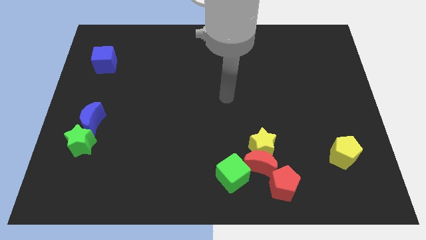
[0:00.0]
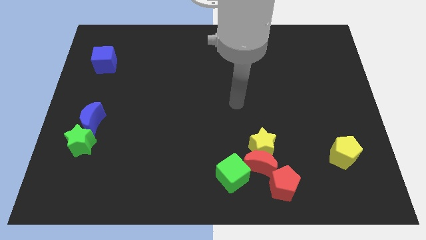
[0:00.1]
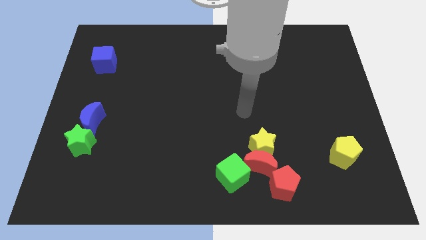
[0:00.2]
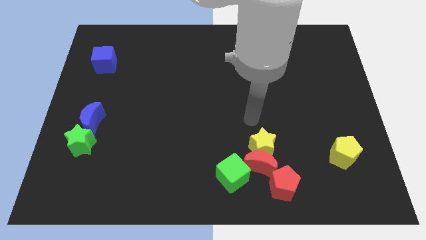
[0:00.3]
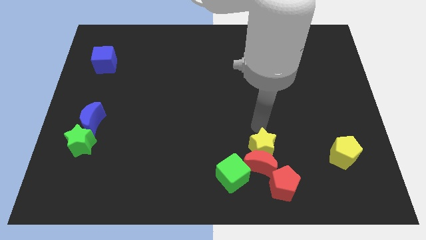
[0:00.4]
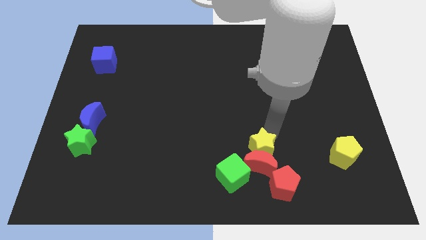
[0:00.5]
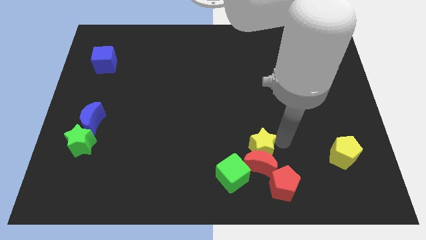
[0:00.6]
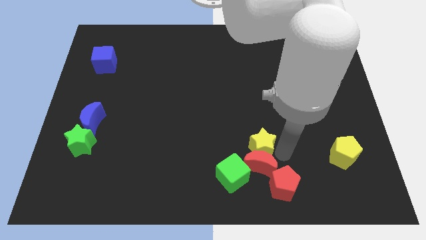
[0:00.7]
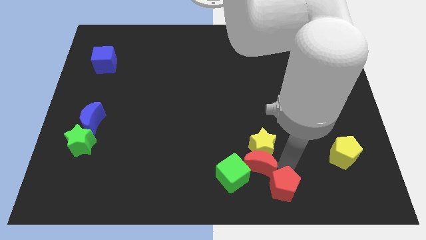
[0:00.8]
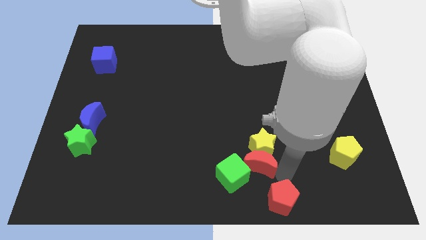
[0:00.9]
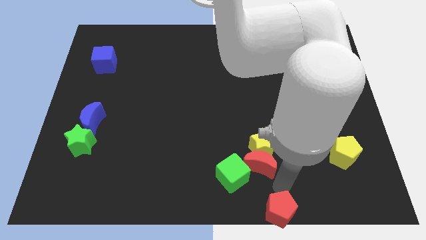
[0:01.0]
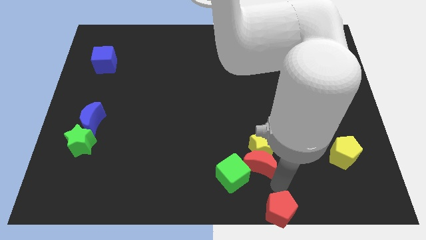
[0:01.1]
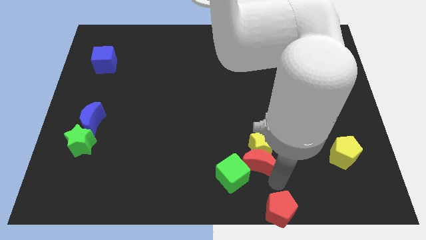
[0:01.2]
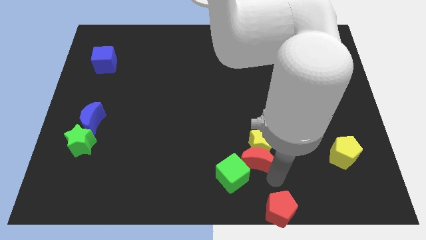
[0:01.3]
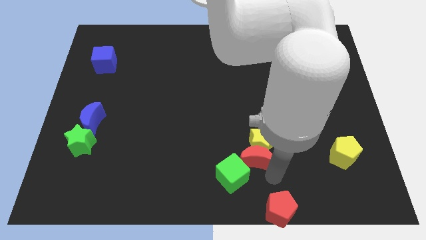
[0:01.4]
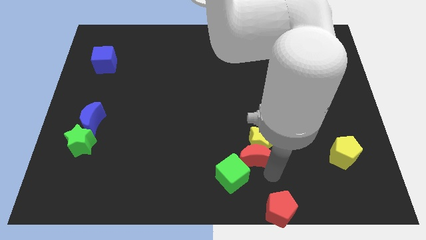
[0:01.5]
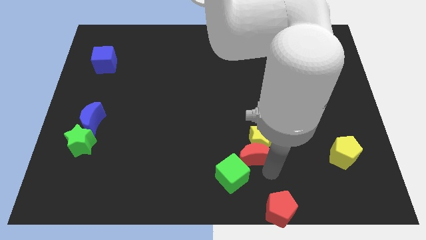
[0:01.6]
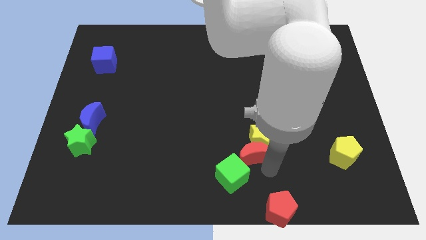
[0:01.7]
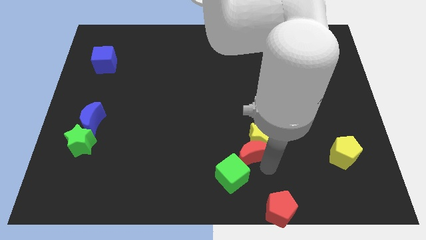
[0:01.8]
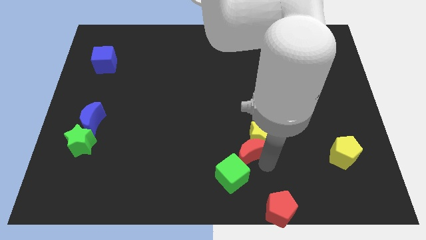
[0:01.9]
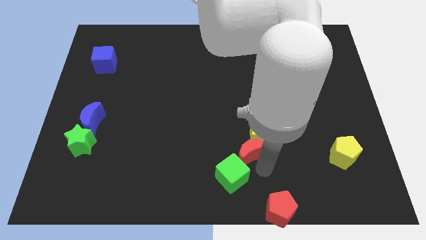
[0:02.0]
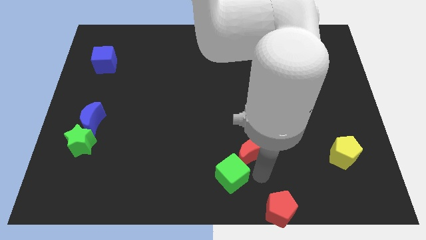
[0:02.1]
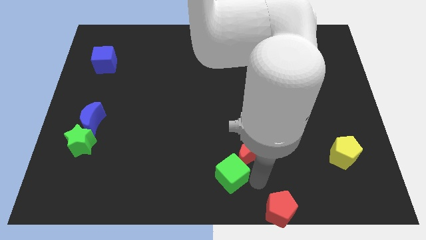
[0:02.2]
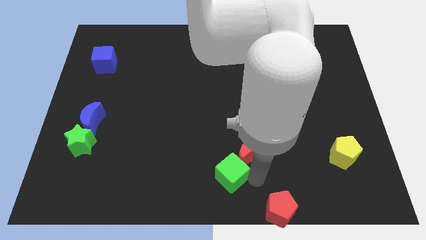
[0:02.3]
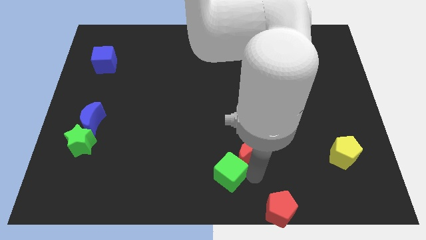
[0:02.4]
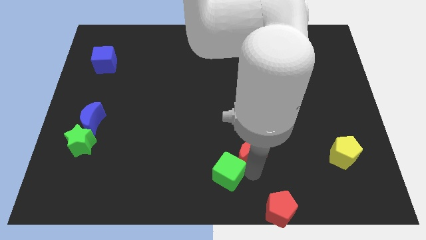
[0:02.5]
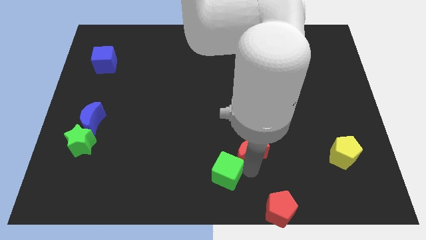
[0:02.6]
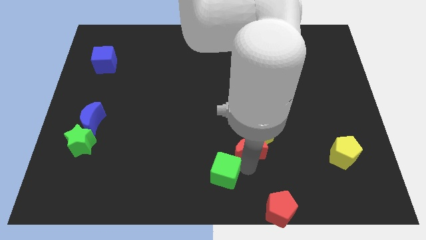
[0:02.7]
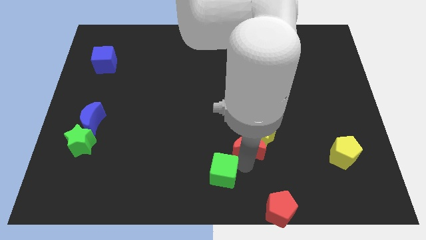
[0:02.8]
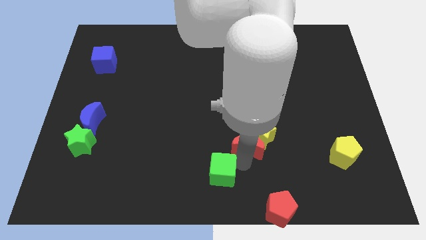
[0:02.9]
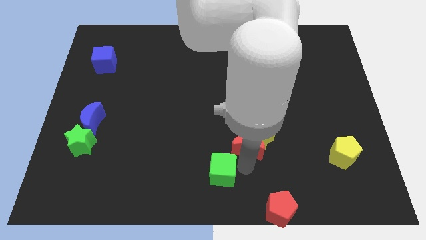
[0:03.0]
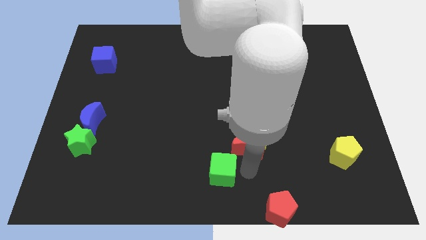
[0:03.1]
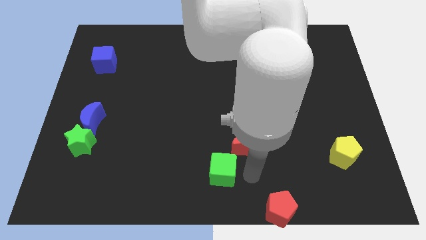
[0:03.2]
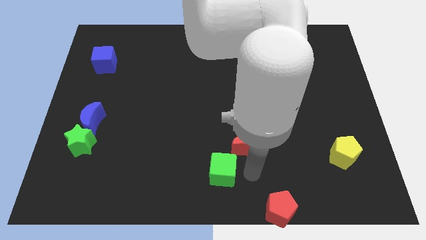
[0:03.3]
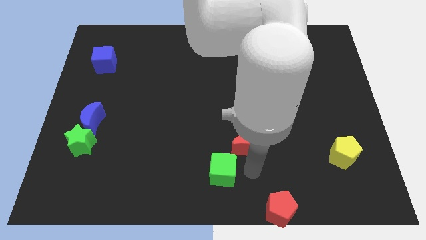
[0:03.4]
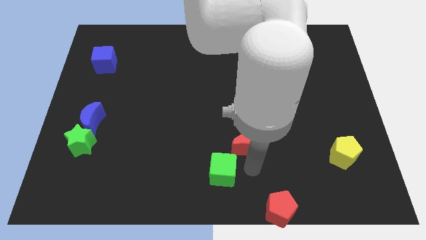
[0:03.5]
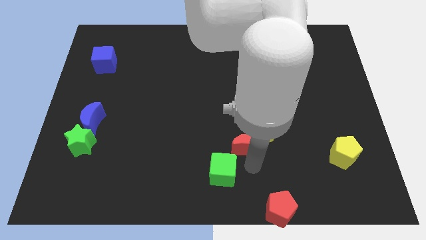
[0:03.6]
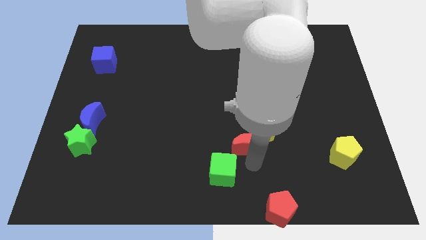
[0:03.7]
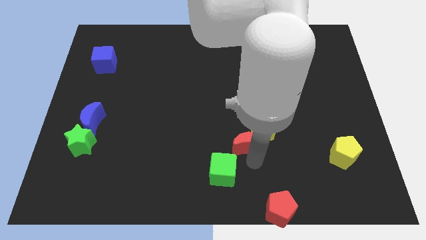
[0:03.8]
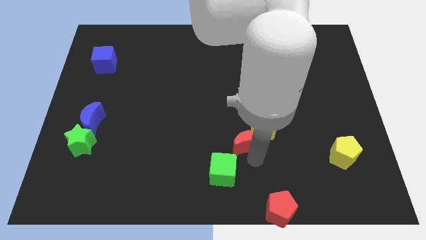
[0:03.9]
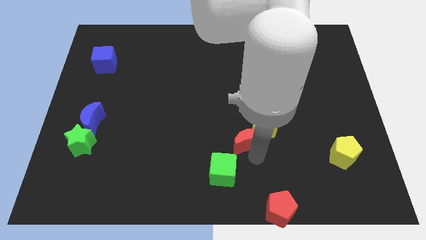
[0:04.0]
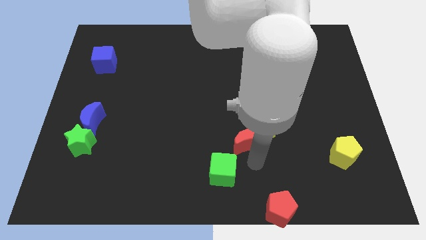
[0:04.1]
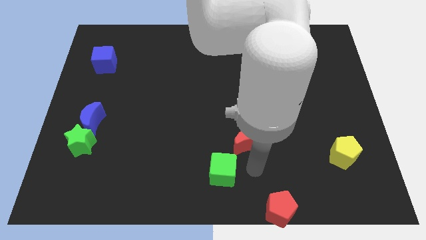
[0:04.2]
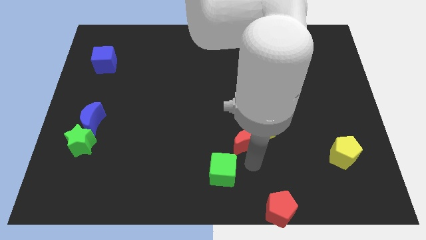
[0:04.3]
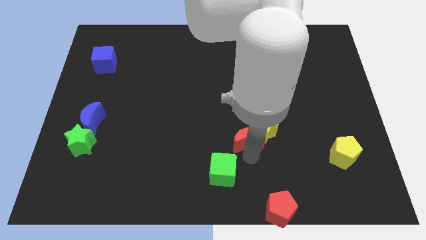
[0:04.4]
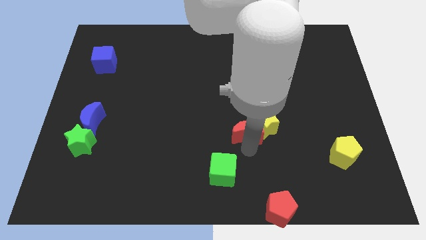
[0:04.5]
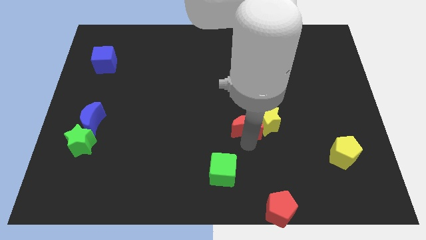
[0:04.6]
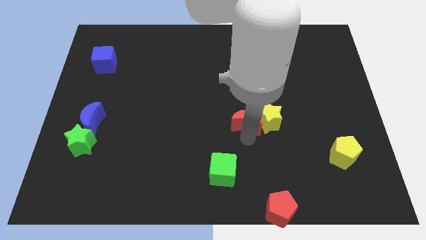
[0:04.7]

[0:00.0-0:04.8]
move the red moon away from the yellow star, green cube, and red pentagon

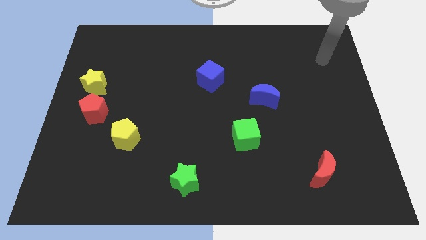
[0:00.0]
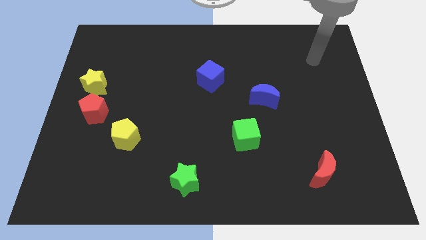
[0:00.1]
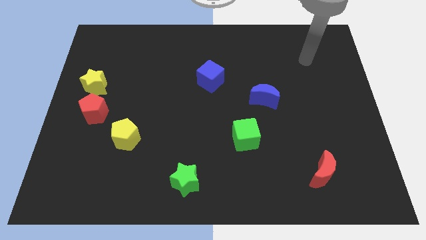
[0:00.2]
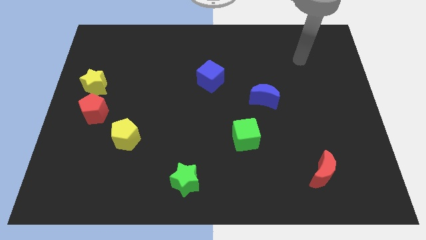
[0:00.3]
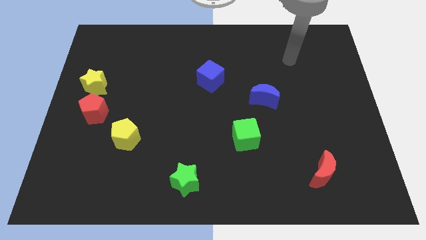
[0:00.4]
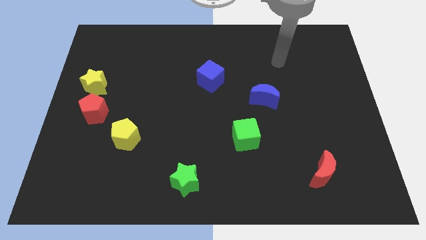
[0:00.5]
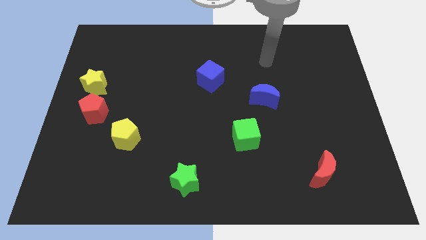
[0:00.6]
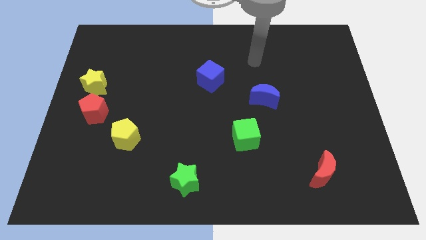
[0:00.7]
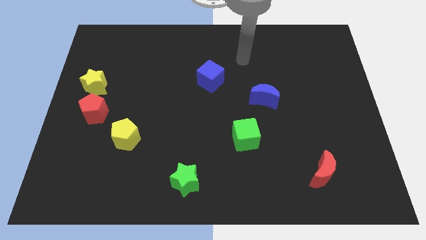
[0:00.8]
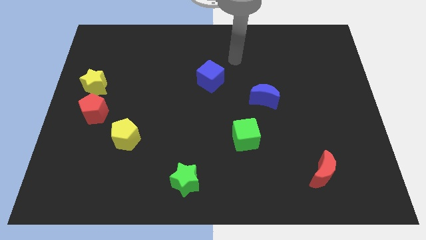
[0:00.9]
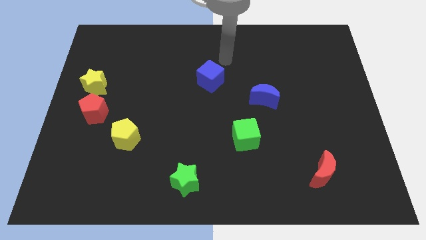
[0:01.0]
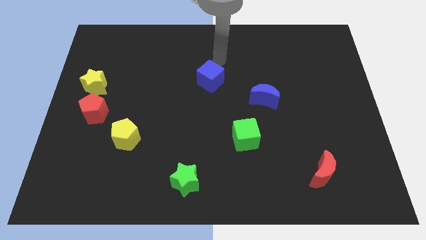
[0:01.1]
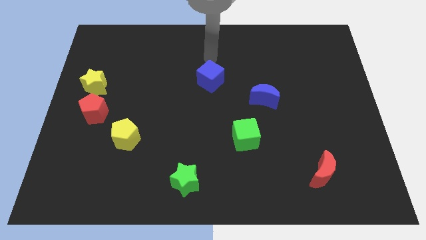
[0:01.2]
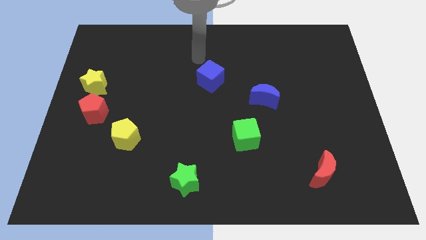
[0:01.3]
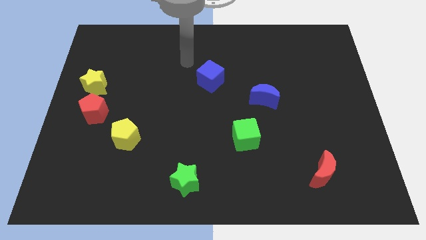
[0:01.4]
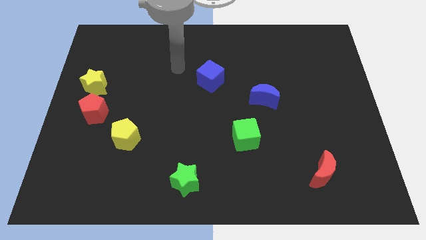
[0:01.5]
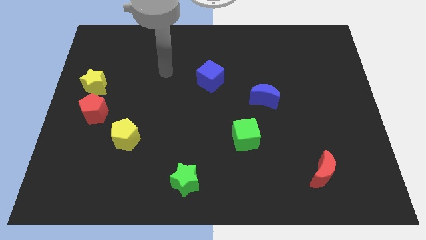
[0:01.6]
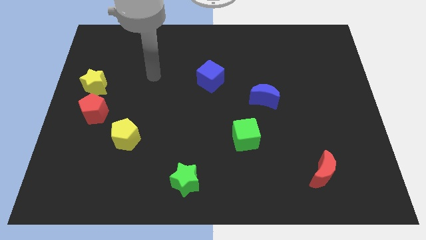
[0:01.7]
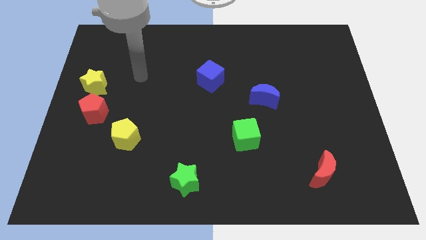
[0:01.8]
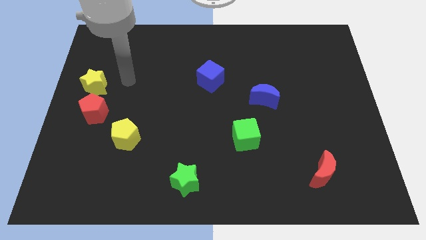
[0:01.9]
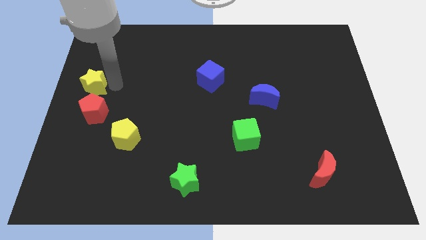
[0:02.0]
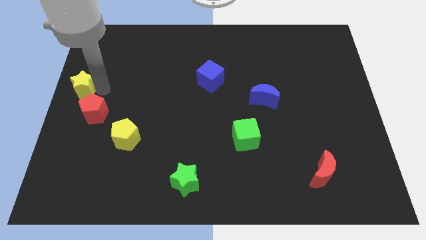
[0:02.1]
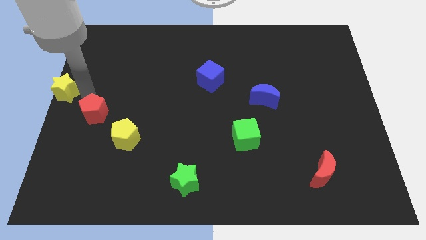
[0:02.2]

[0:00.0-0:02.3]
separate the red pentagon from the yellow star

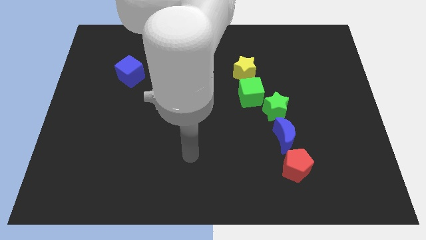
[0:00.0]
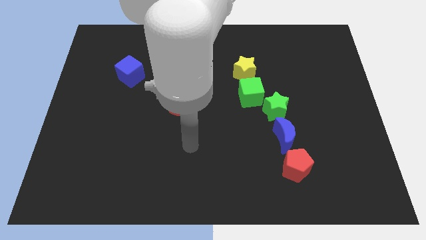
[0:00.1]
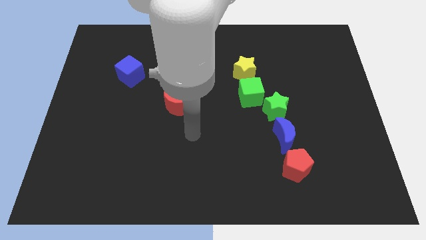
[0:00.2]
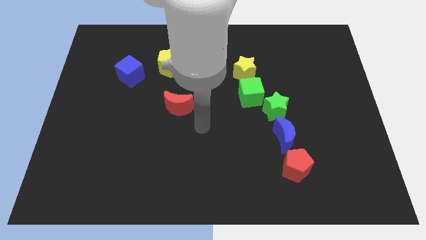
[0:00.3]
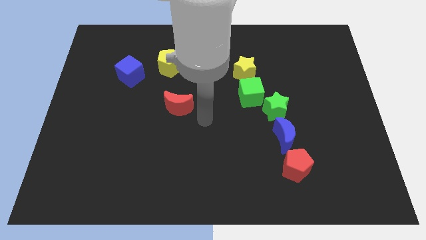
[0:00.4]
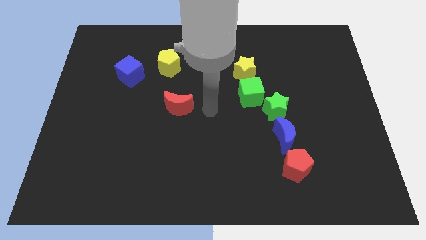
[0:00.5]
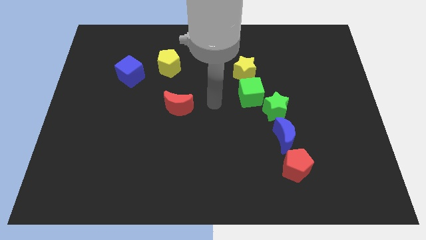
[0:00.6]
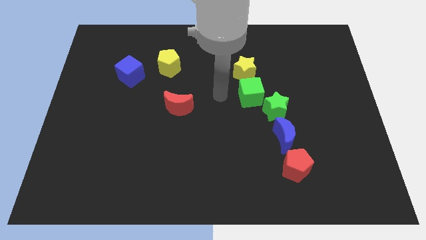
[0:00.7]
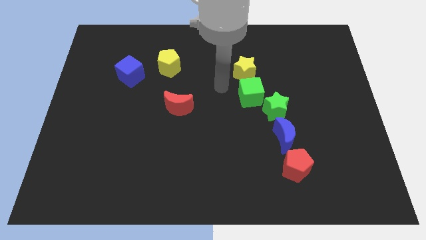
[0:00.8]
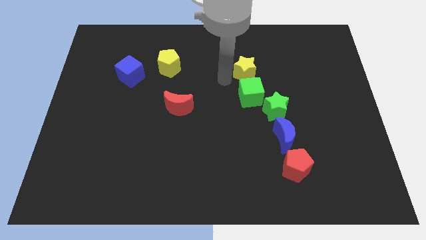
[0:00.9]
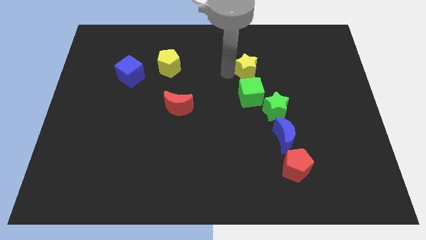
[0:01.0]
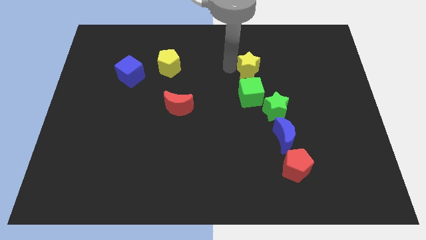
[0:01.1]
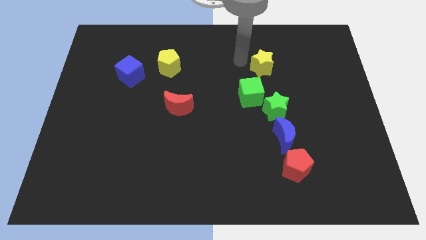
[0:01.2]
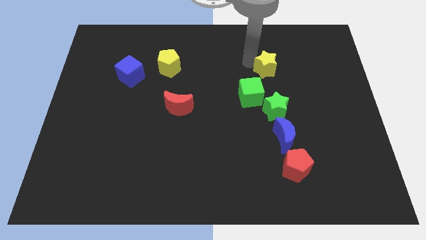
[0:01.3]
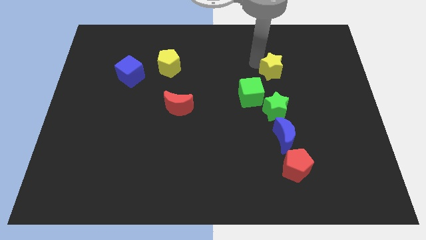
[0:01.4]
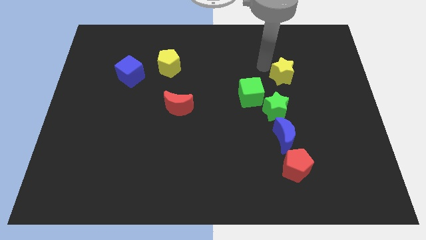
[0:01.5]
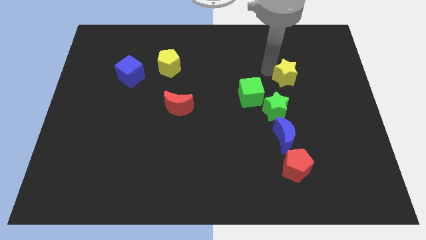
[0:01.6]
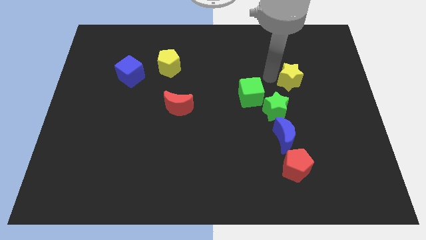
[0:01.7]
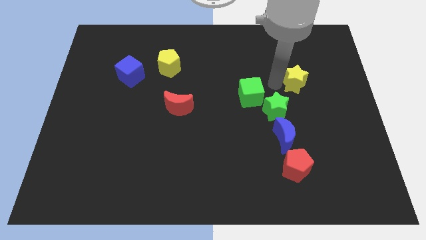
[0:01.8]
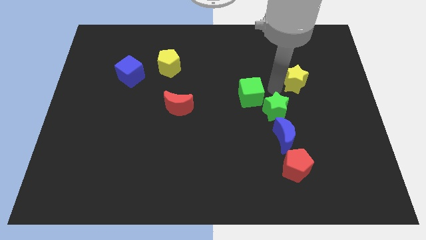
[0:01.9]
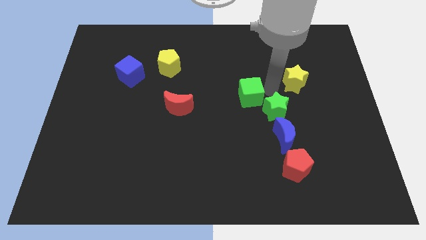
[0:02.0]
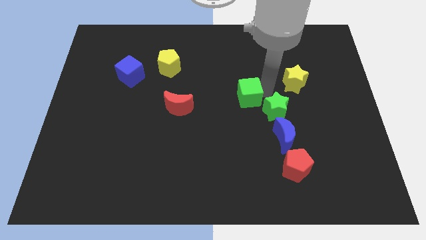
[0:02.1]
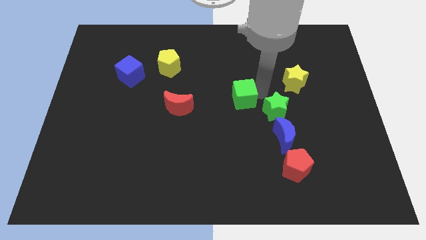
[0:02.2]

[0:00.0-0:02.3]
pull the green cube apart from the green star and yellow star
